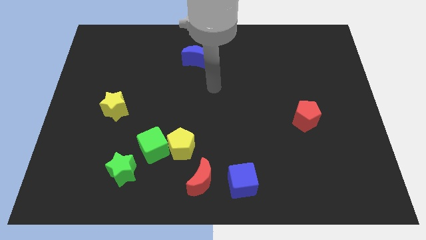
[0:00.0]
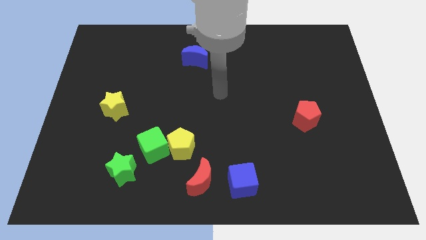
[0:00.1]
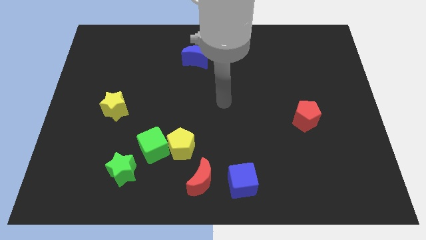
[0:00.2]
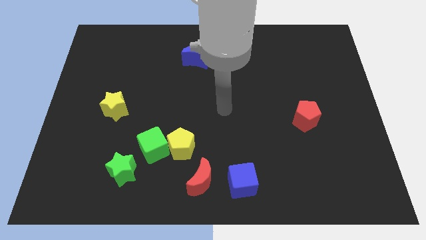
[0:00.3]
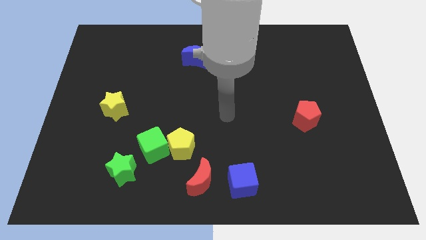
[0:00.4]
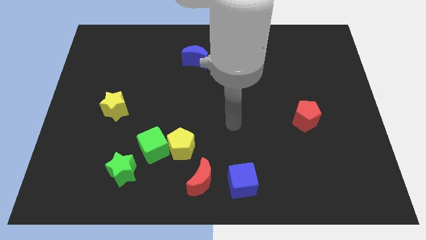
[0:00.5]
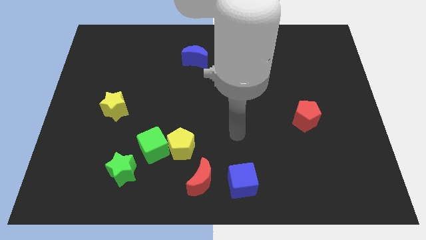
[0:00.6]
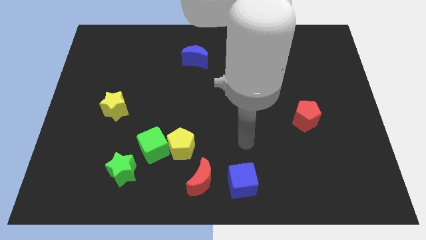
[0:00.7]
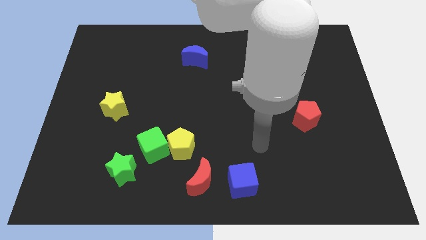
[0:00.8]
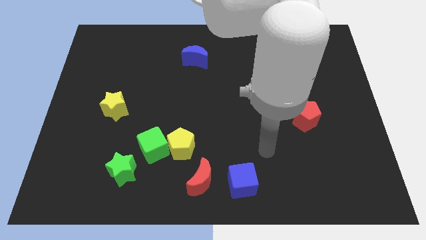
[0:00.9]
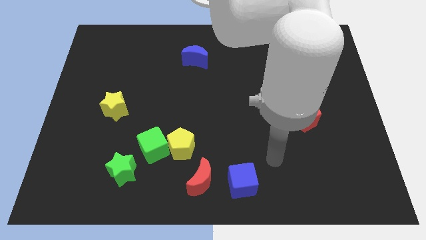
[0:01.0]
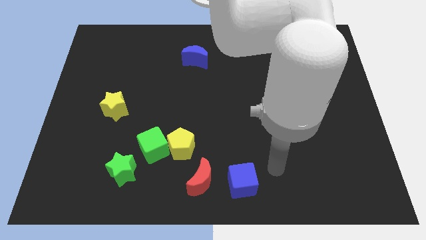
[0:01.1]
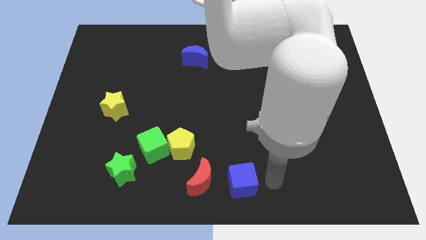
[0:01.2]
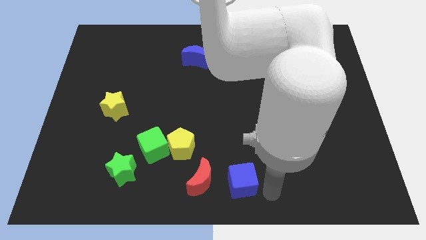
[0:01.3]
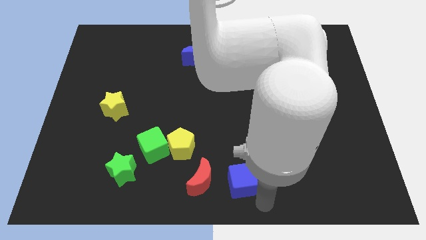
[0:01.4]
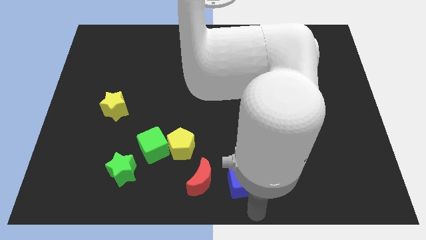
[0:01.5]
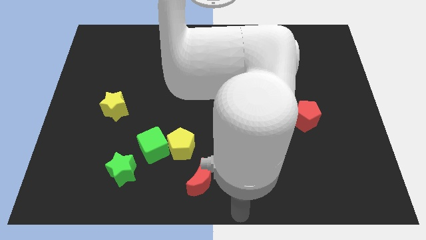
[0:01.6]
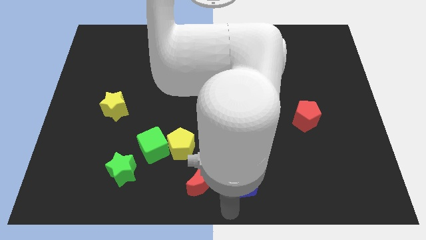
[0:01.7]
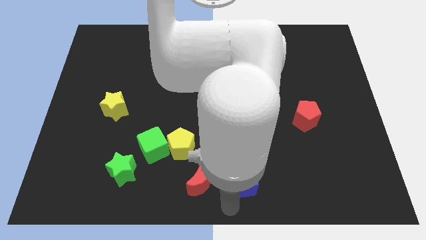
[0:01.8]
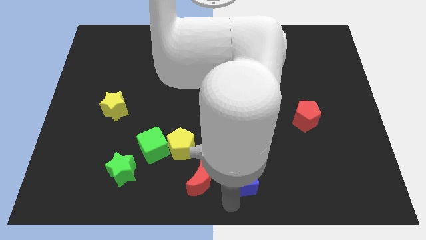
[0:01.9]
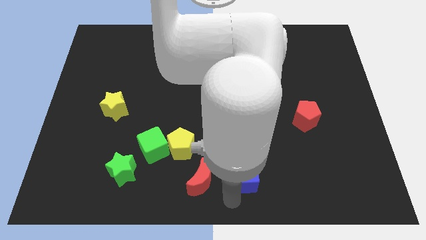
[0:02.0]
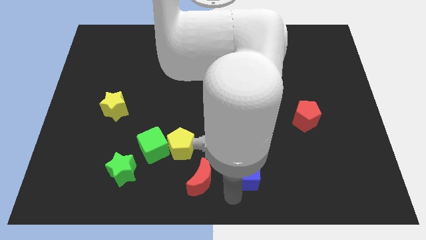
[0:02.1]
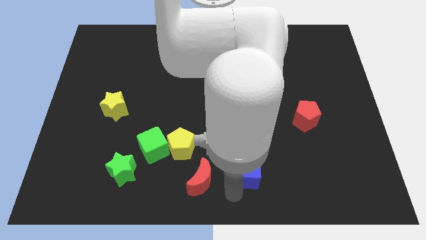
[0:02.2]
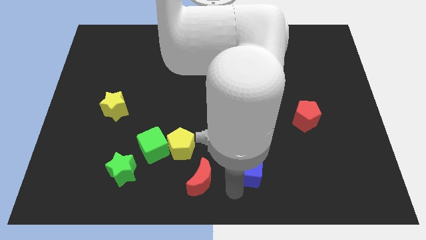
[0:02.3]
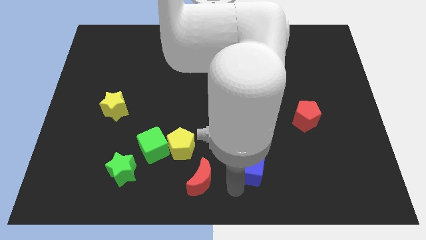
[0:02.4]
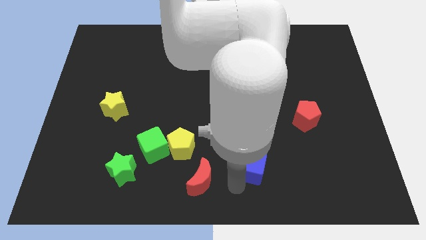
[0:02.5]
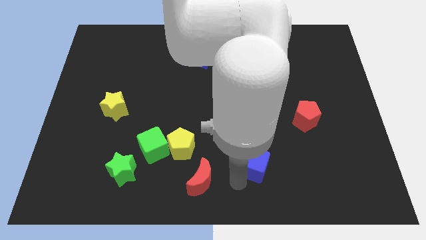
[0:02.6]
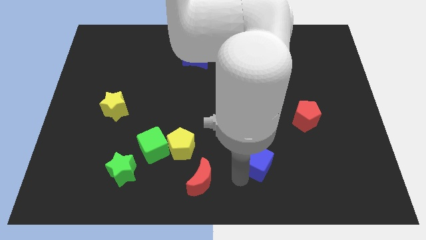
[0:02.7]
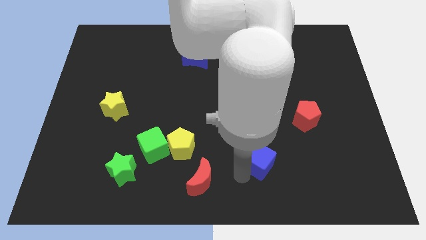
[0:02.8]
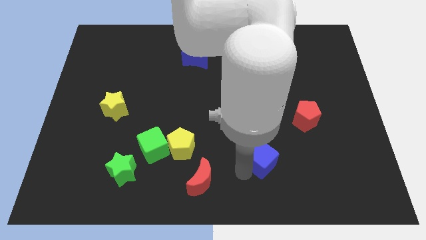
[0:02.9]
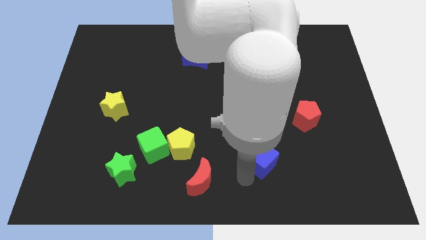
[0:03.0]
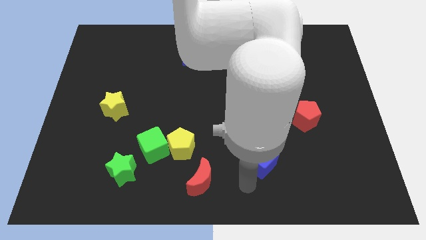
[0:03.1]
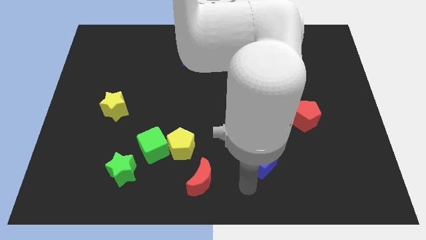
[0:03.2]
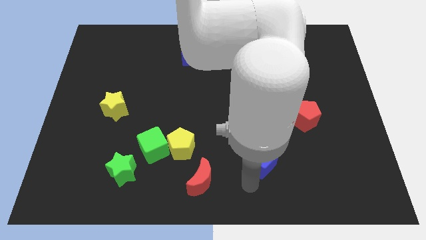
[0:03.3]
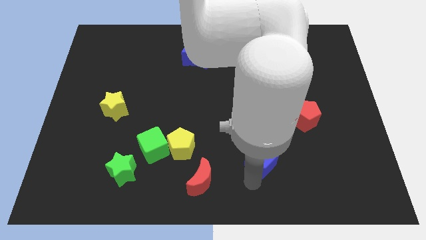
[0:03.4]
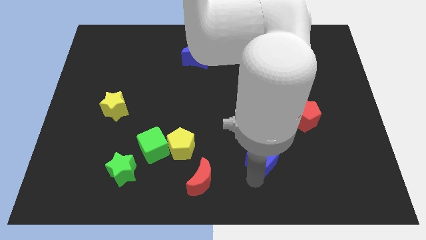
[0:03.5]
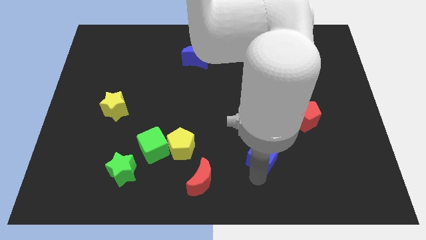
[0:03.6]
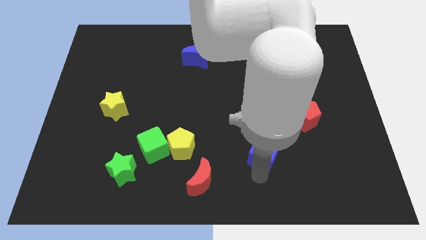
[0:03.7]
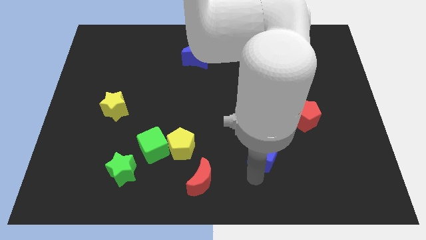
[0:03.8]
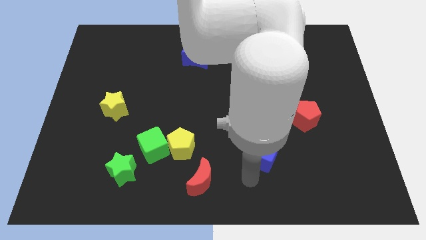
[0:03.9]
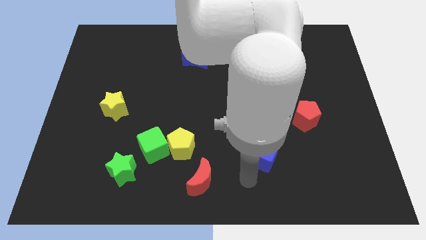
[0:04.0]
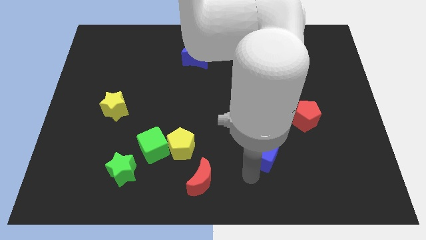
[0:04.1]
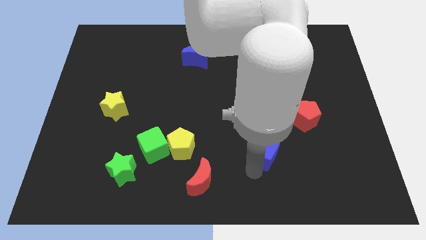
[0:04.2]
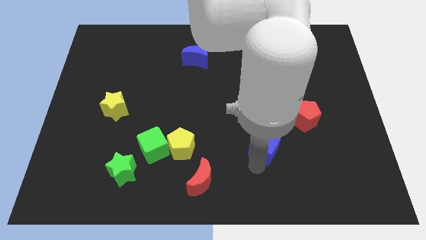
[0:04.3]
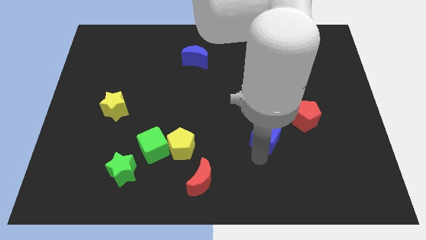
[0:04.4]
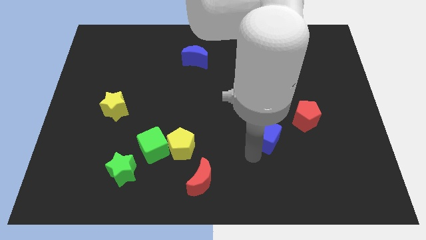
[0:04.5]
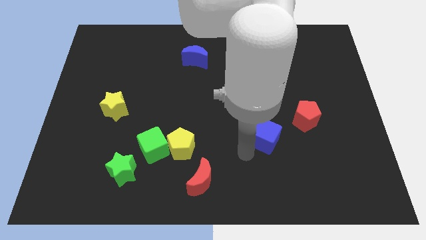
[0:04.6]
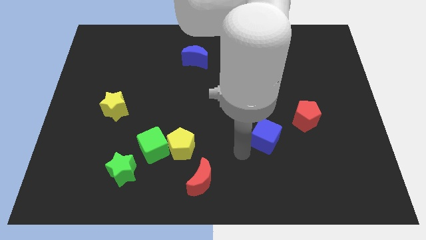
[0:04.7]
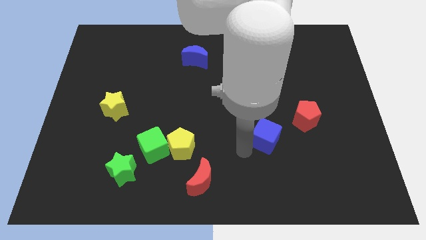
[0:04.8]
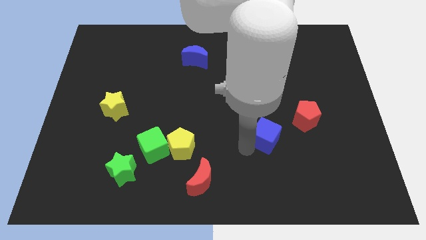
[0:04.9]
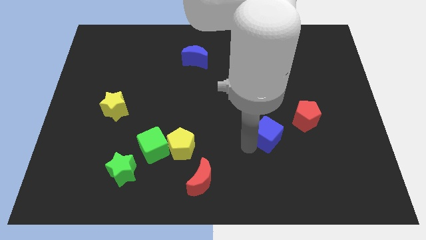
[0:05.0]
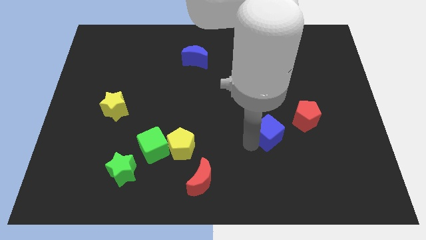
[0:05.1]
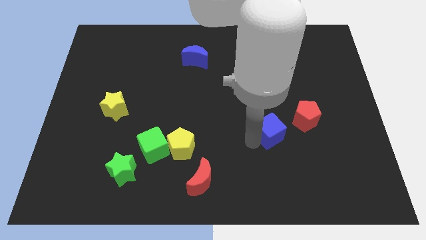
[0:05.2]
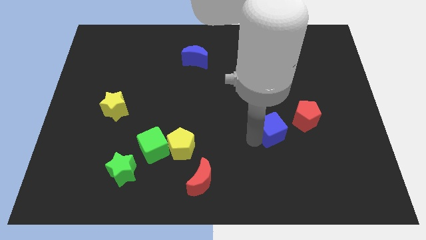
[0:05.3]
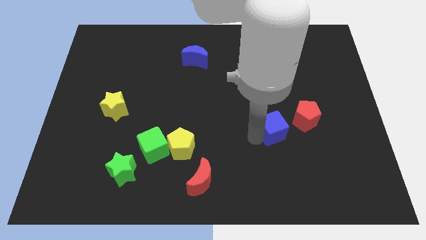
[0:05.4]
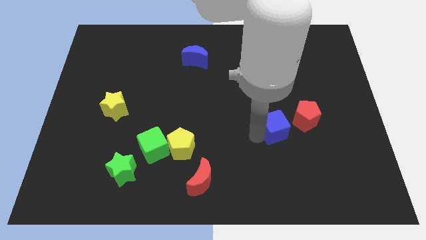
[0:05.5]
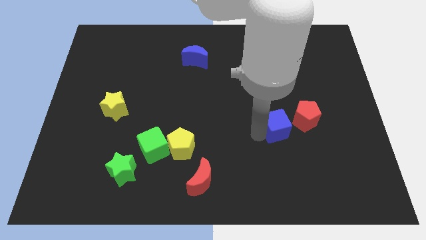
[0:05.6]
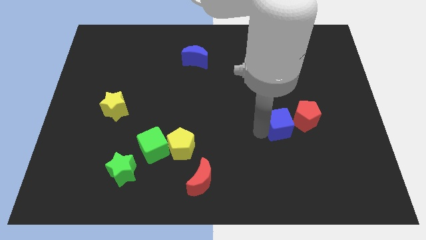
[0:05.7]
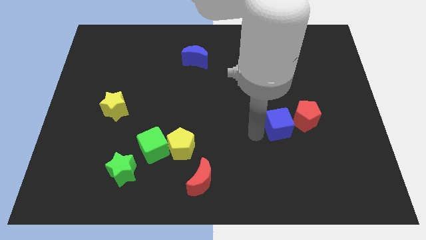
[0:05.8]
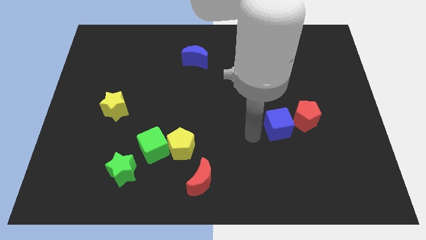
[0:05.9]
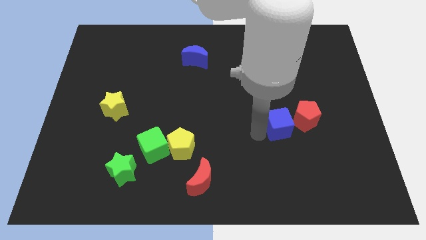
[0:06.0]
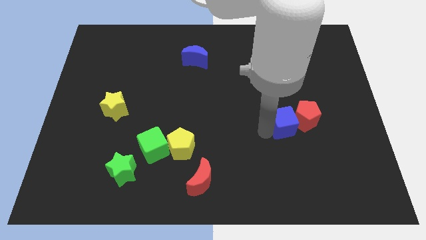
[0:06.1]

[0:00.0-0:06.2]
push the blue cube close to the red pentagon
